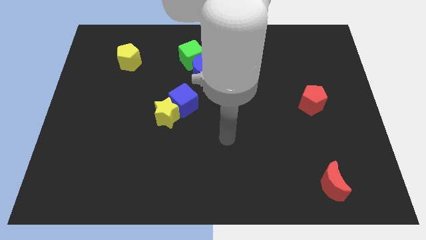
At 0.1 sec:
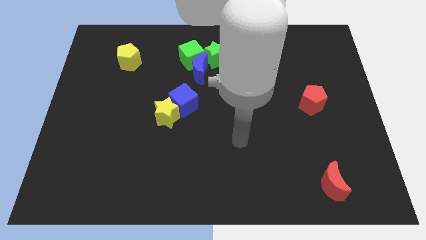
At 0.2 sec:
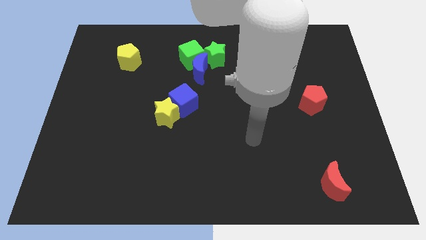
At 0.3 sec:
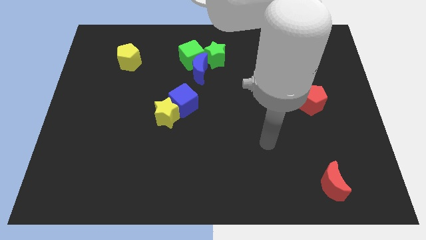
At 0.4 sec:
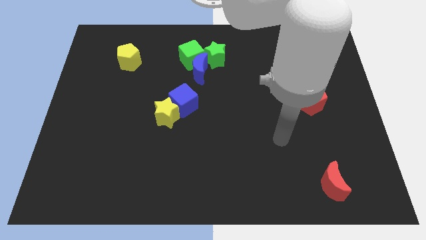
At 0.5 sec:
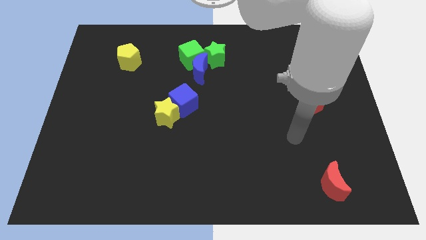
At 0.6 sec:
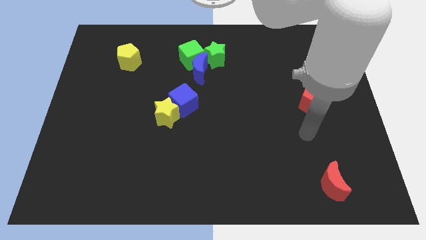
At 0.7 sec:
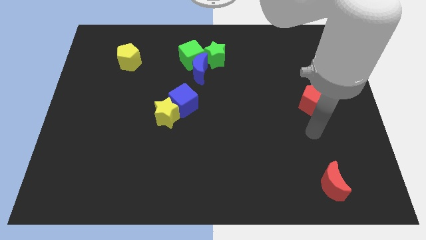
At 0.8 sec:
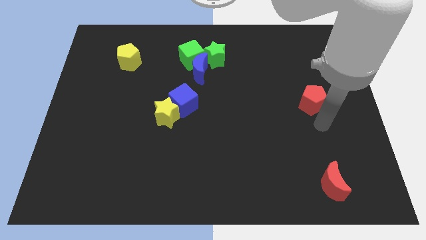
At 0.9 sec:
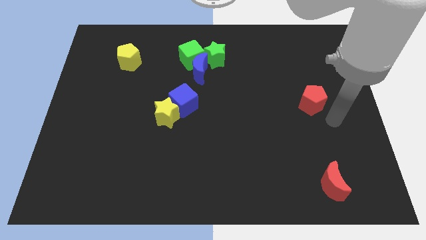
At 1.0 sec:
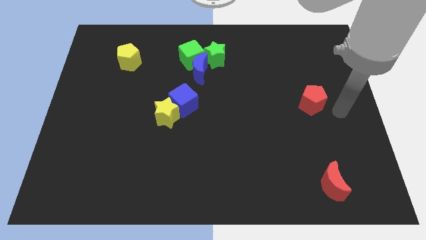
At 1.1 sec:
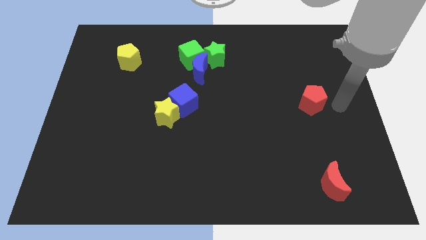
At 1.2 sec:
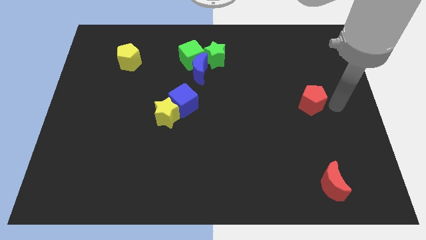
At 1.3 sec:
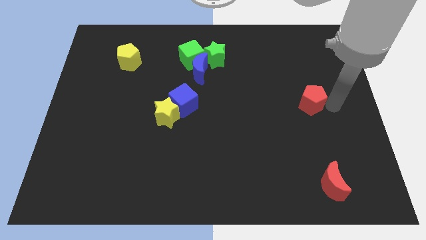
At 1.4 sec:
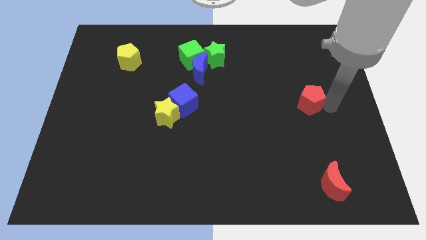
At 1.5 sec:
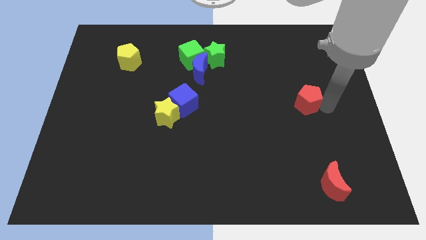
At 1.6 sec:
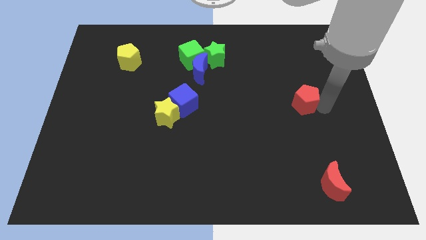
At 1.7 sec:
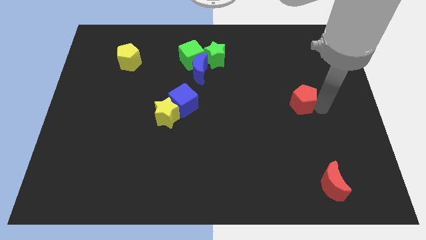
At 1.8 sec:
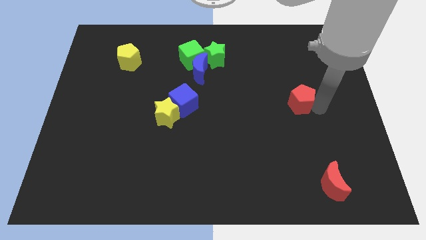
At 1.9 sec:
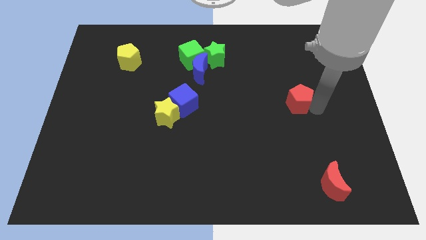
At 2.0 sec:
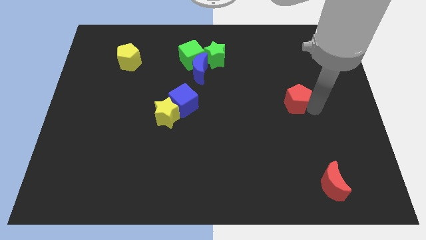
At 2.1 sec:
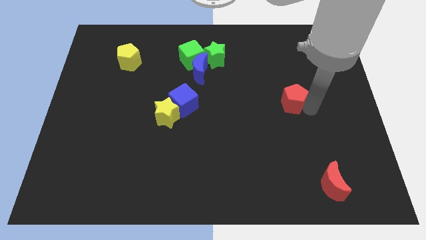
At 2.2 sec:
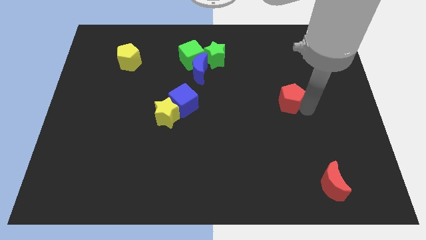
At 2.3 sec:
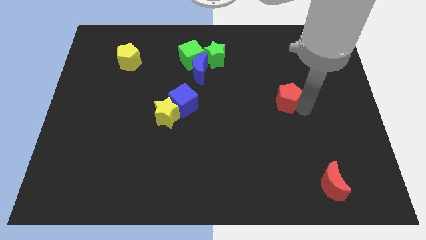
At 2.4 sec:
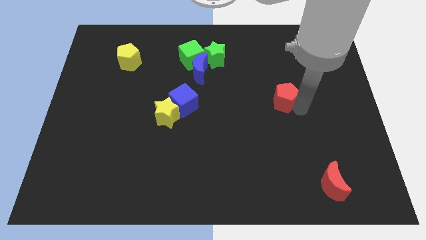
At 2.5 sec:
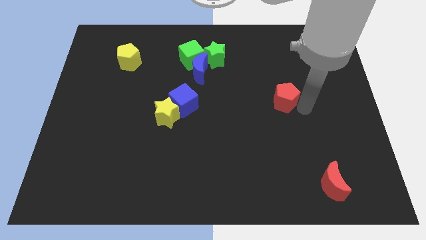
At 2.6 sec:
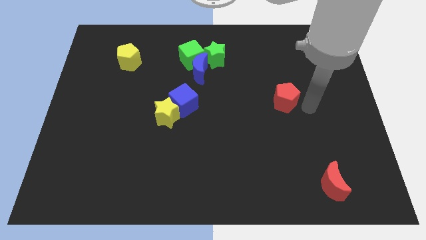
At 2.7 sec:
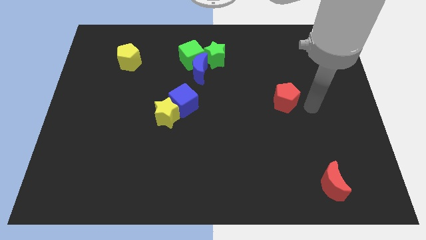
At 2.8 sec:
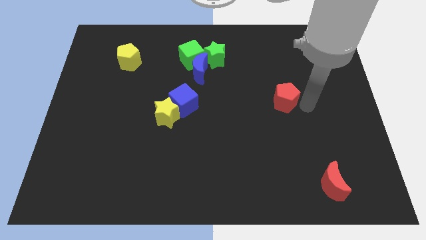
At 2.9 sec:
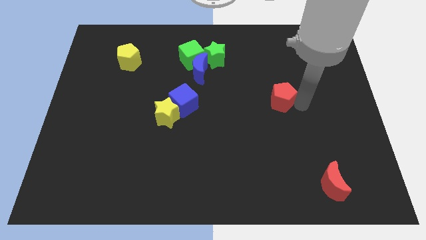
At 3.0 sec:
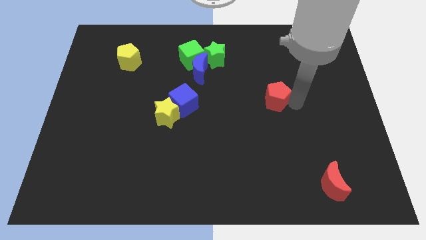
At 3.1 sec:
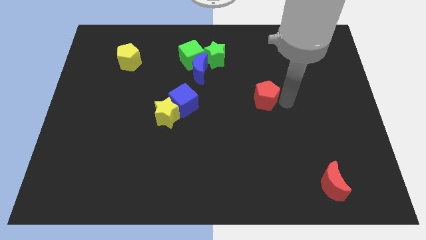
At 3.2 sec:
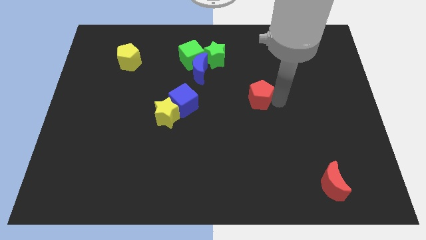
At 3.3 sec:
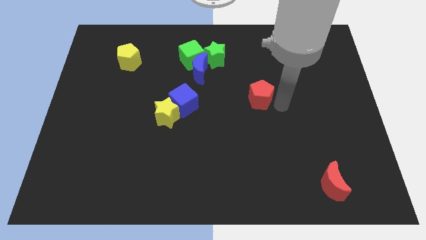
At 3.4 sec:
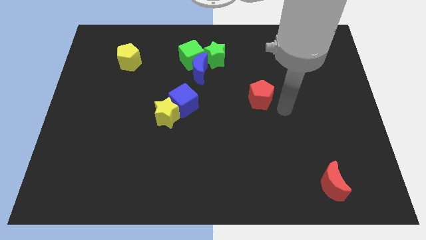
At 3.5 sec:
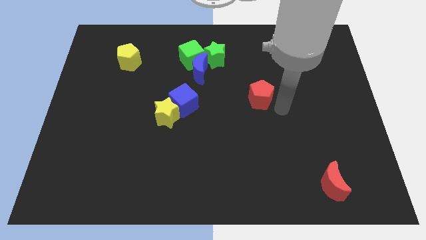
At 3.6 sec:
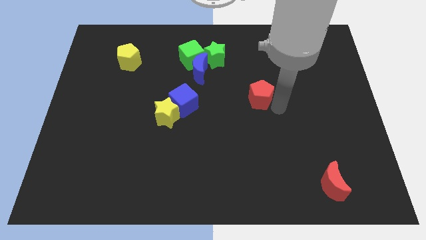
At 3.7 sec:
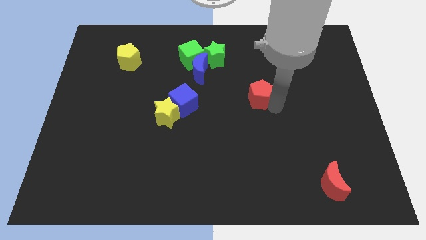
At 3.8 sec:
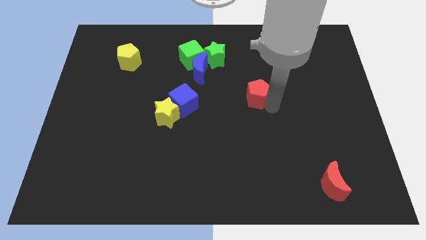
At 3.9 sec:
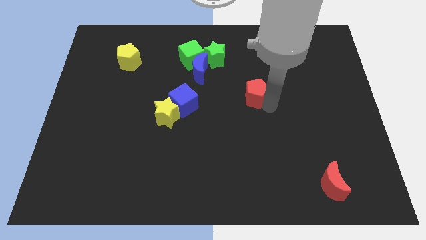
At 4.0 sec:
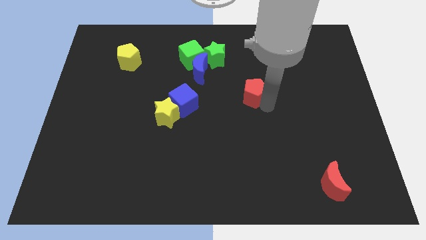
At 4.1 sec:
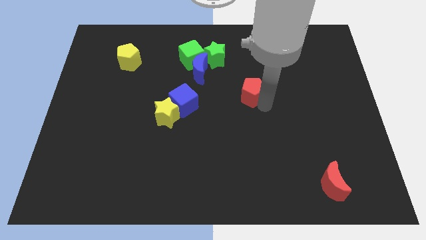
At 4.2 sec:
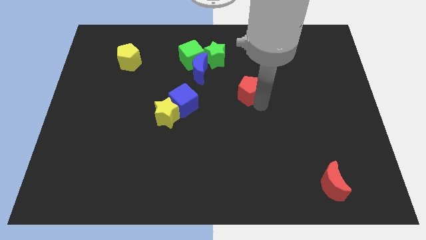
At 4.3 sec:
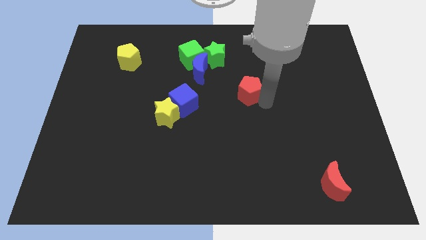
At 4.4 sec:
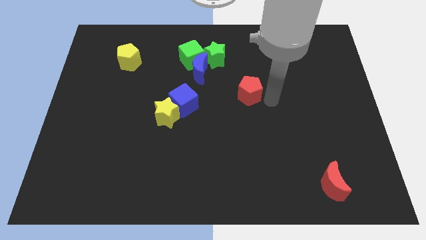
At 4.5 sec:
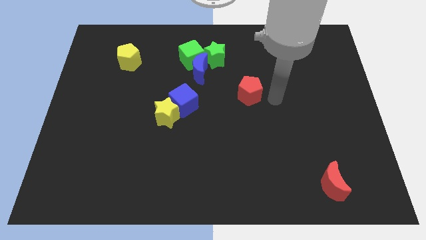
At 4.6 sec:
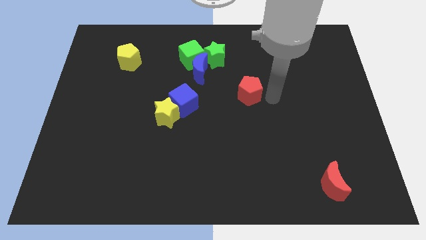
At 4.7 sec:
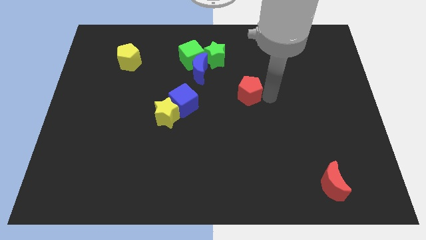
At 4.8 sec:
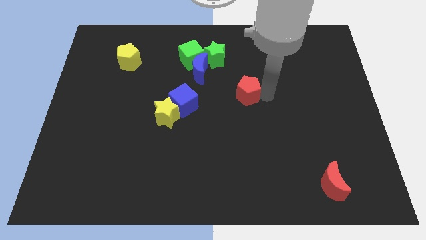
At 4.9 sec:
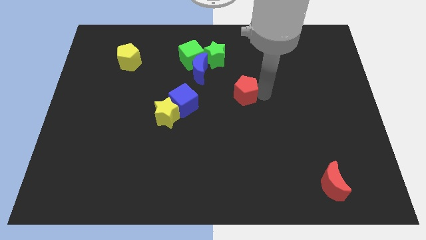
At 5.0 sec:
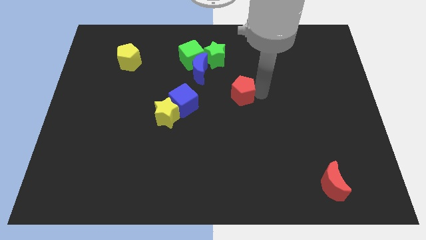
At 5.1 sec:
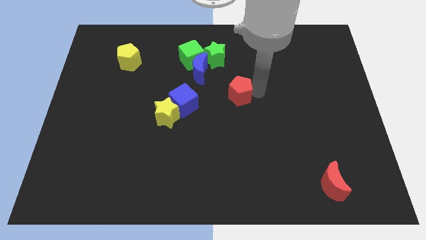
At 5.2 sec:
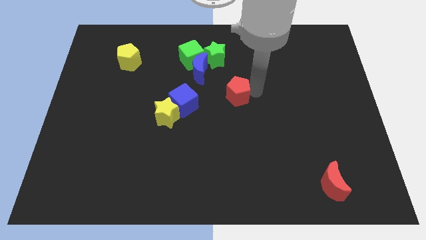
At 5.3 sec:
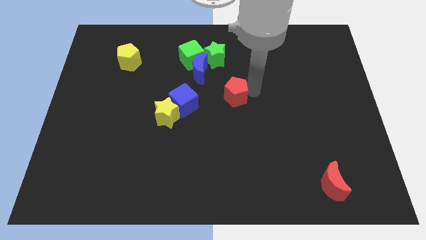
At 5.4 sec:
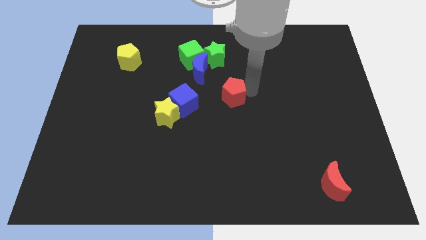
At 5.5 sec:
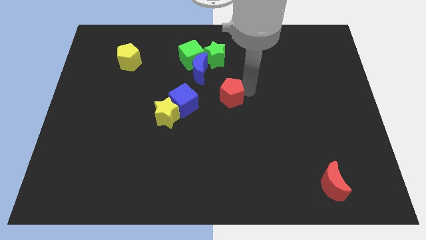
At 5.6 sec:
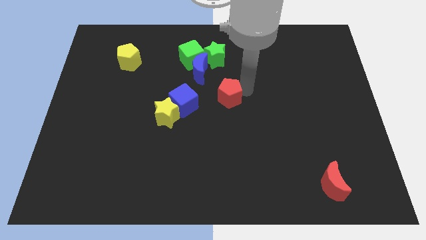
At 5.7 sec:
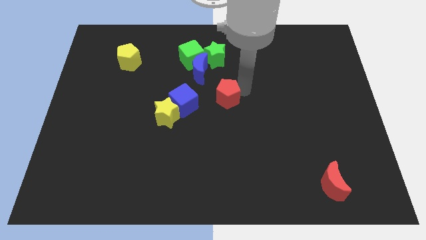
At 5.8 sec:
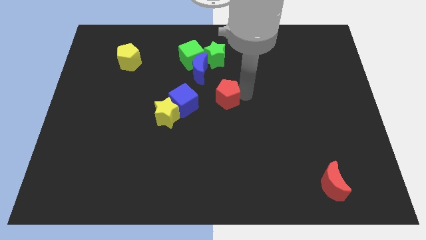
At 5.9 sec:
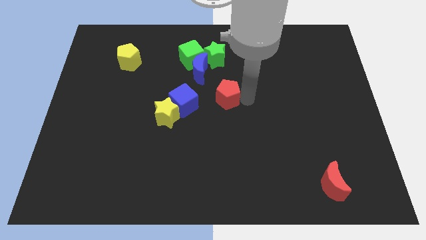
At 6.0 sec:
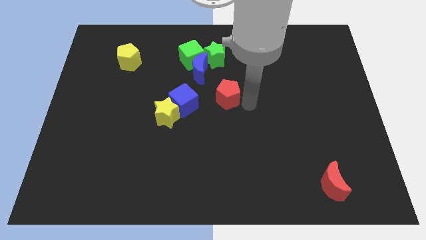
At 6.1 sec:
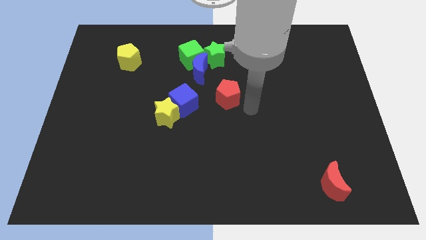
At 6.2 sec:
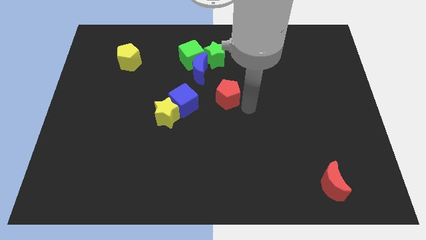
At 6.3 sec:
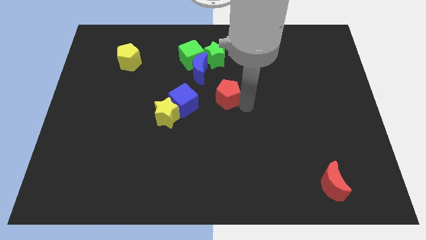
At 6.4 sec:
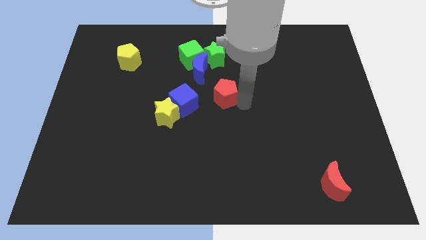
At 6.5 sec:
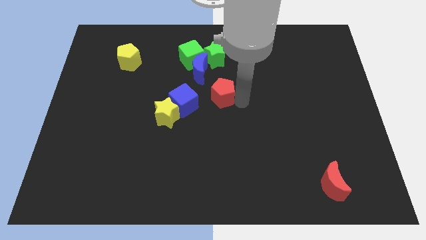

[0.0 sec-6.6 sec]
move the red pentagon to the top right of the blue cube
